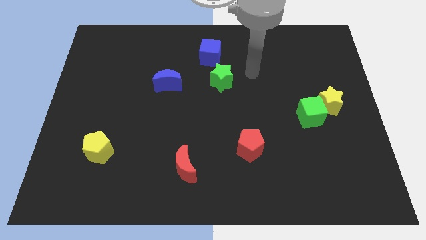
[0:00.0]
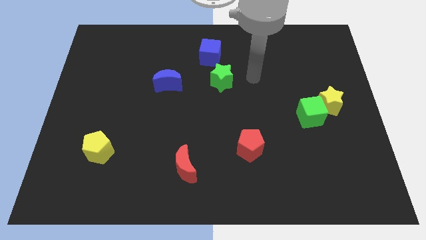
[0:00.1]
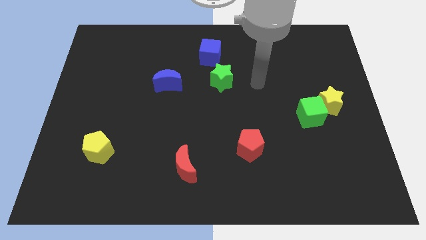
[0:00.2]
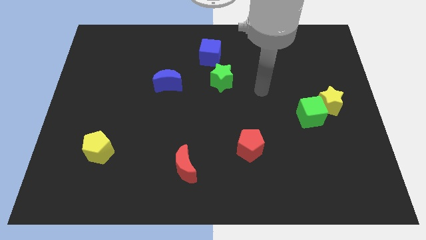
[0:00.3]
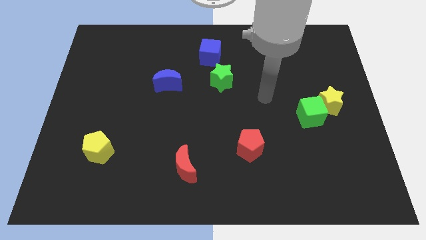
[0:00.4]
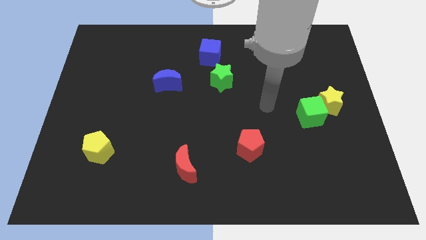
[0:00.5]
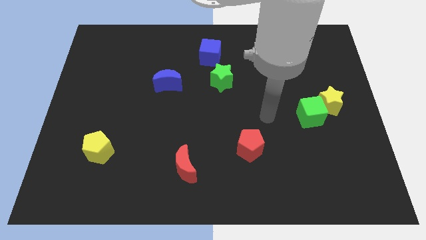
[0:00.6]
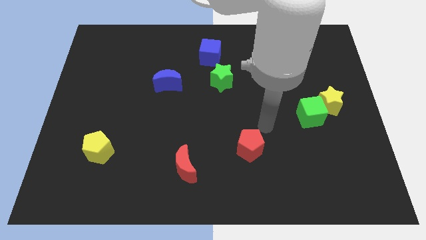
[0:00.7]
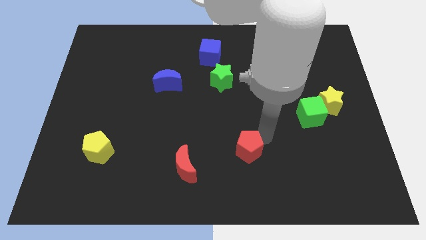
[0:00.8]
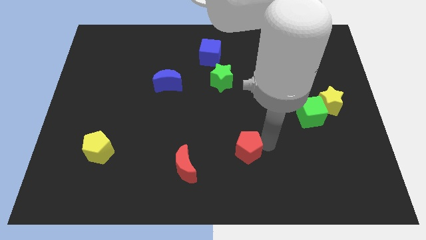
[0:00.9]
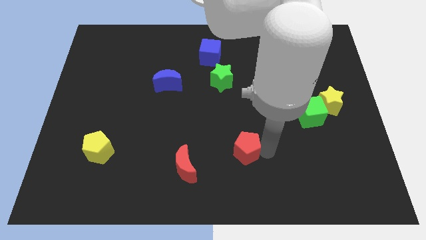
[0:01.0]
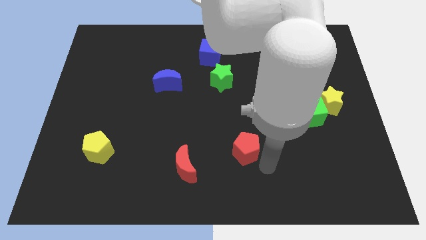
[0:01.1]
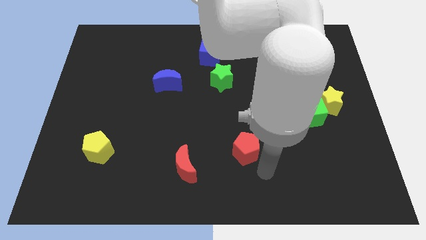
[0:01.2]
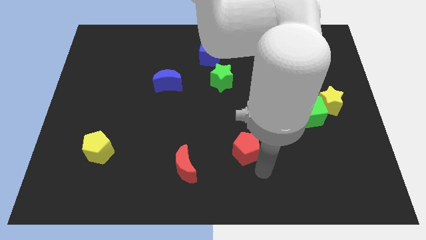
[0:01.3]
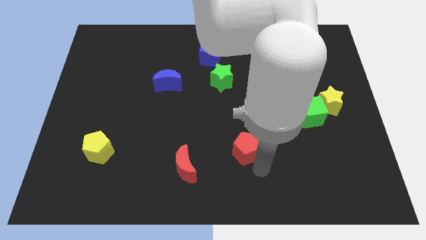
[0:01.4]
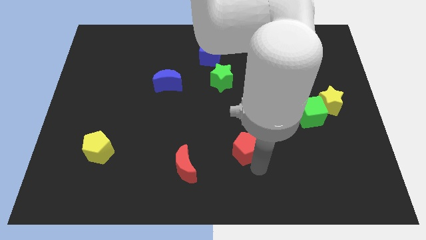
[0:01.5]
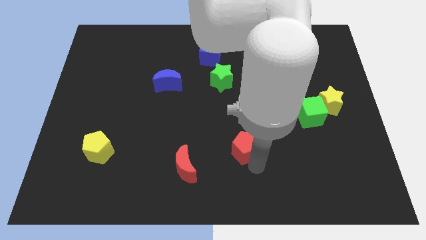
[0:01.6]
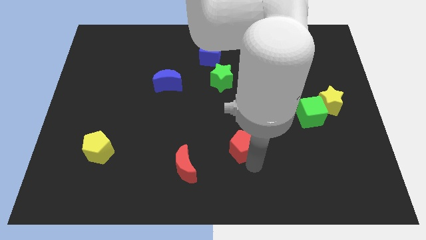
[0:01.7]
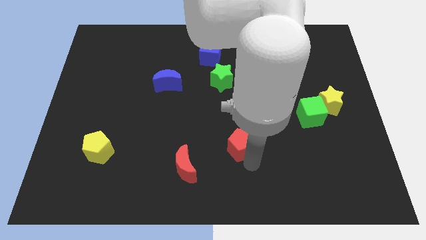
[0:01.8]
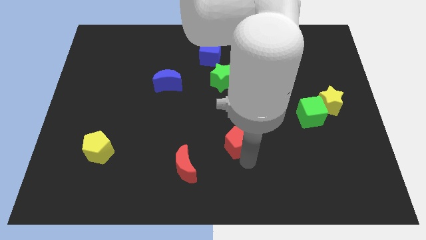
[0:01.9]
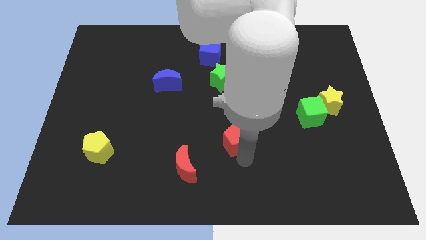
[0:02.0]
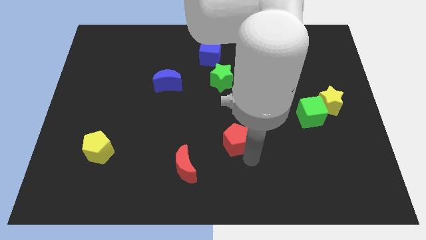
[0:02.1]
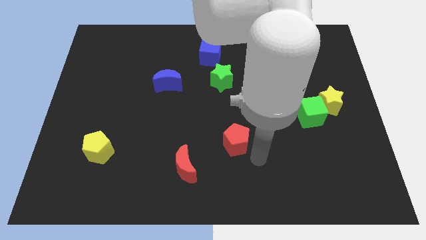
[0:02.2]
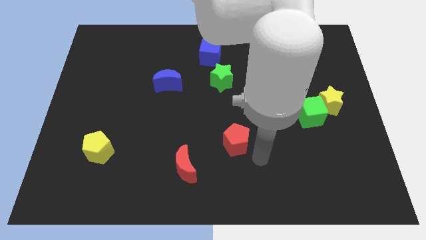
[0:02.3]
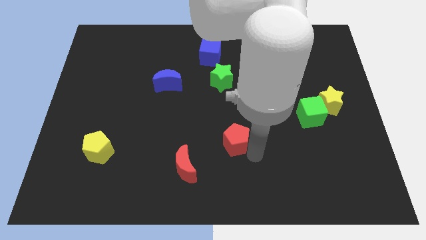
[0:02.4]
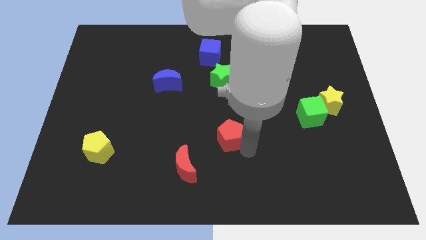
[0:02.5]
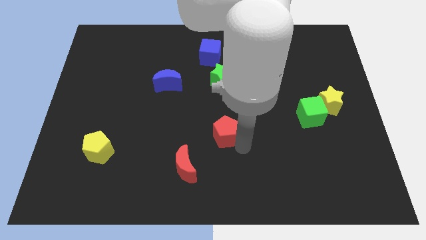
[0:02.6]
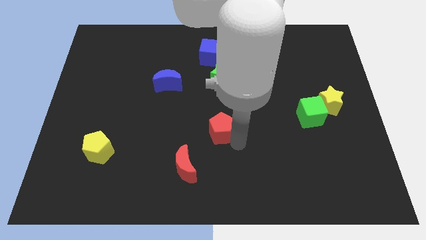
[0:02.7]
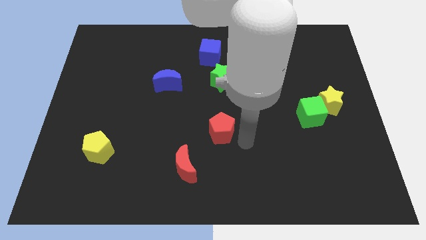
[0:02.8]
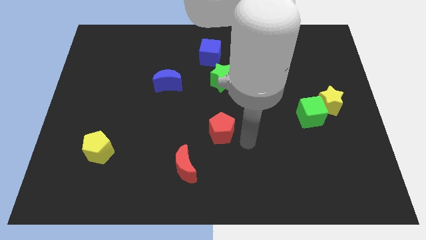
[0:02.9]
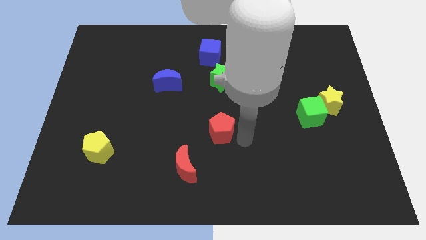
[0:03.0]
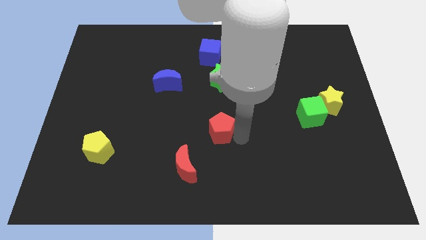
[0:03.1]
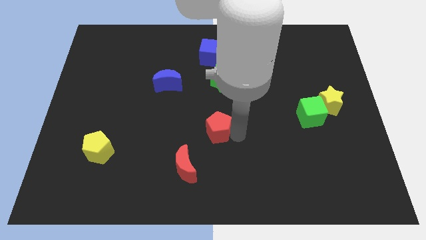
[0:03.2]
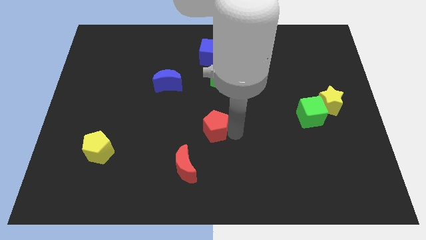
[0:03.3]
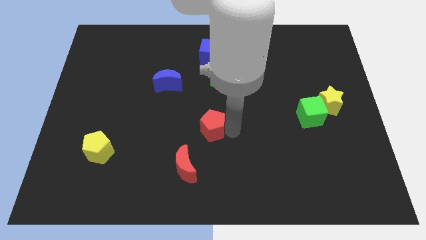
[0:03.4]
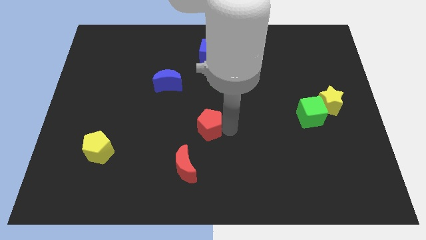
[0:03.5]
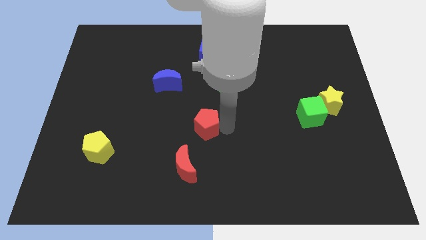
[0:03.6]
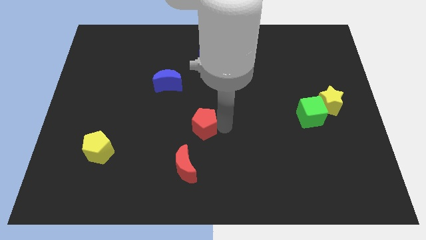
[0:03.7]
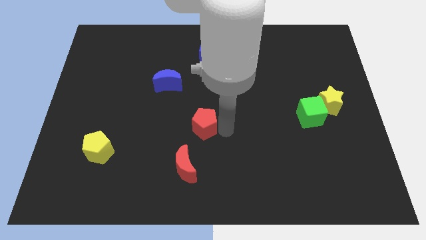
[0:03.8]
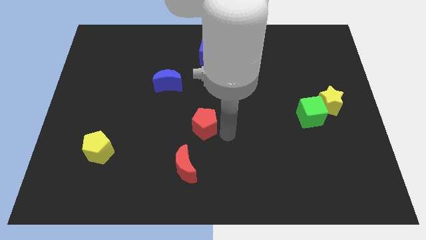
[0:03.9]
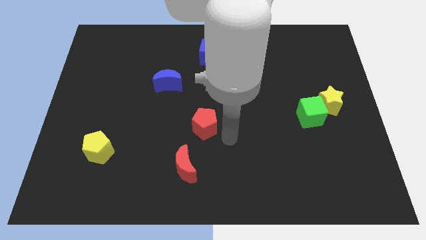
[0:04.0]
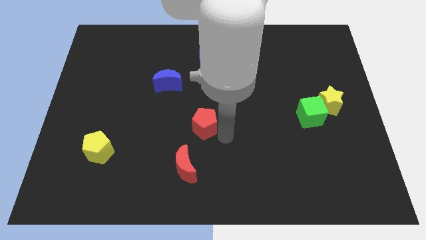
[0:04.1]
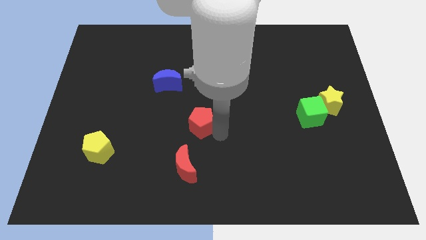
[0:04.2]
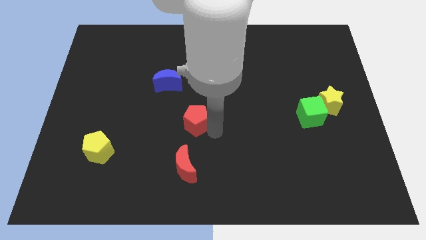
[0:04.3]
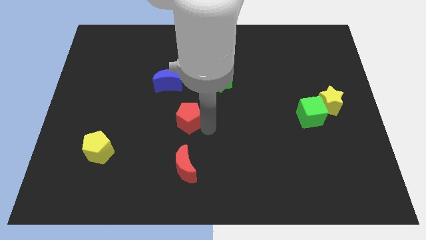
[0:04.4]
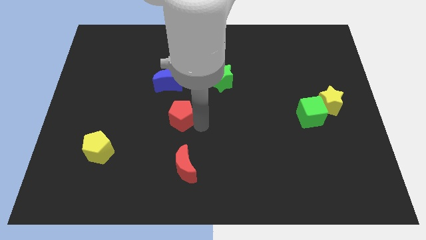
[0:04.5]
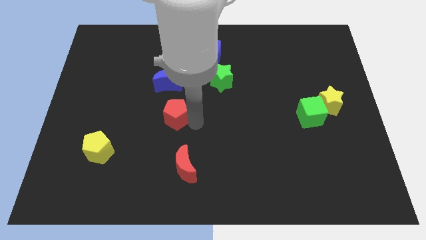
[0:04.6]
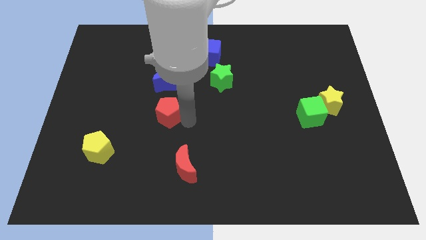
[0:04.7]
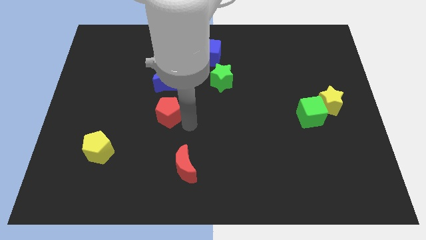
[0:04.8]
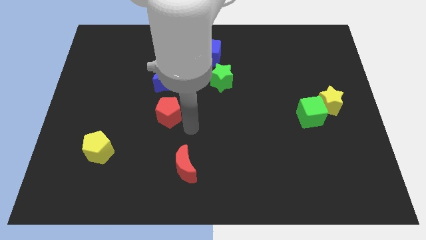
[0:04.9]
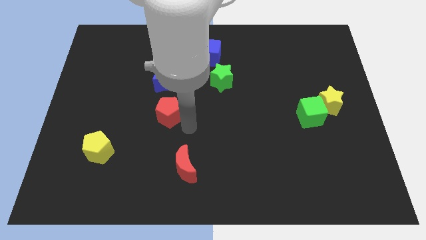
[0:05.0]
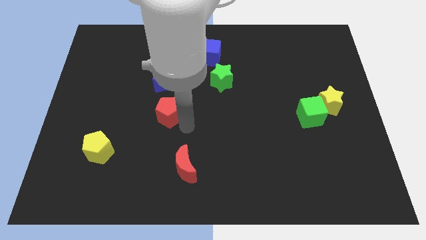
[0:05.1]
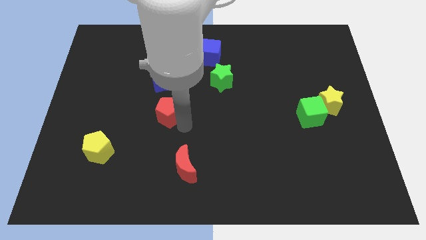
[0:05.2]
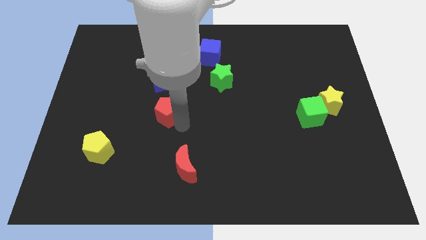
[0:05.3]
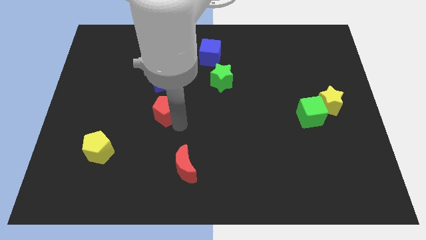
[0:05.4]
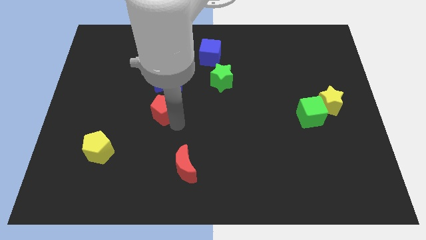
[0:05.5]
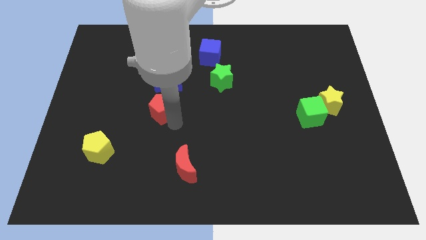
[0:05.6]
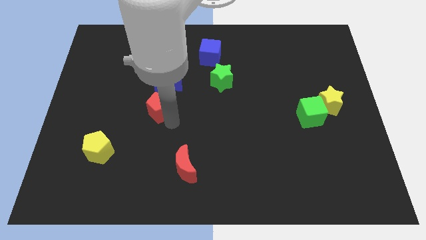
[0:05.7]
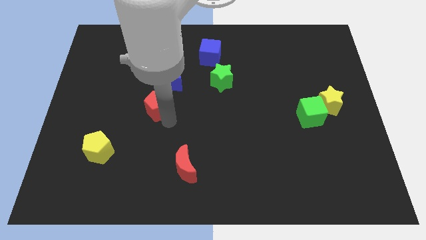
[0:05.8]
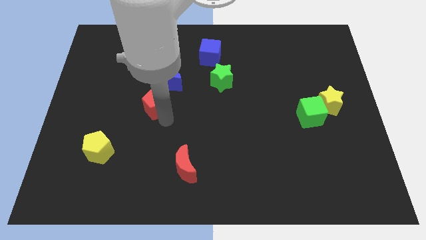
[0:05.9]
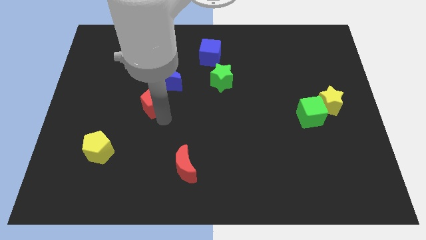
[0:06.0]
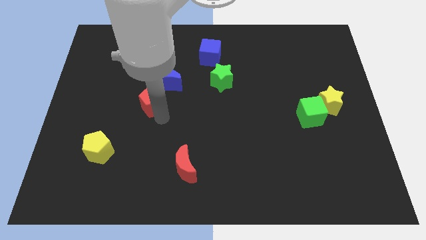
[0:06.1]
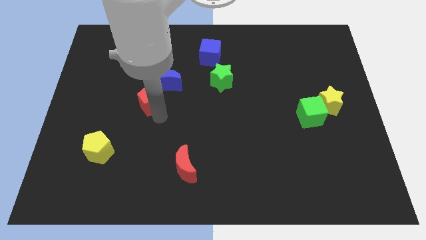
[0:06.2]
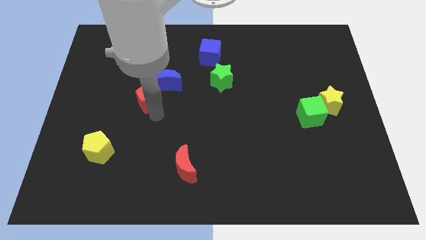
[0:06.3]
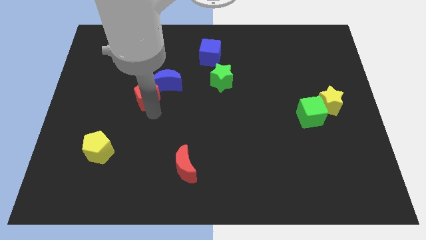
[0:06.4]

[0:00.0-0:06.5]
slide the red pentagon to the left side of the blue moon

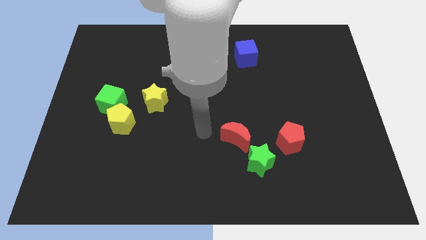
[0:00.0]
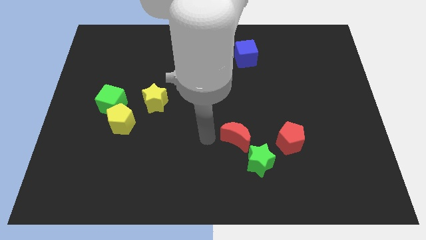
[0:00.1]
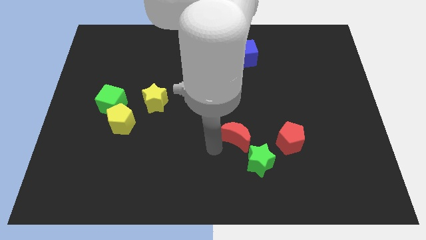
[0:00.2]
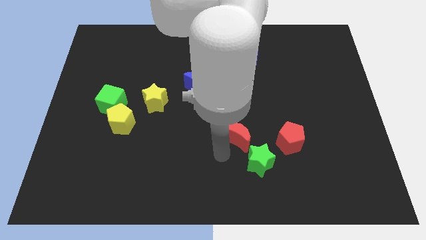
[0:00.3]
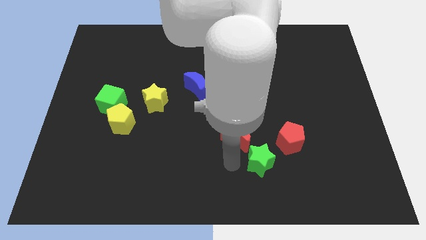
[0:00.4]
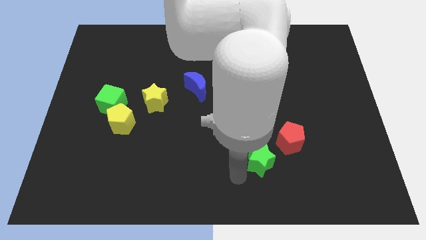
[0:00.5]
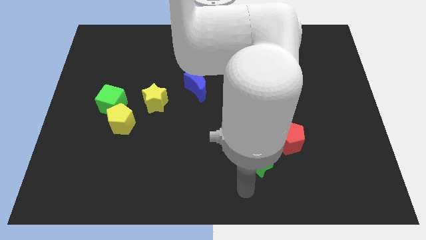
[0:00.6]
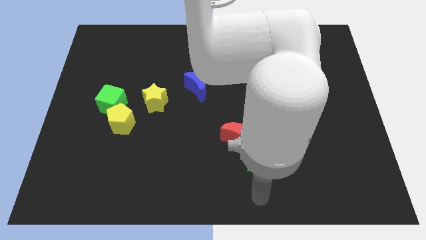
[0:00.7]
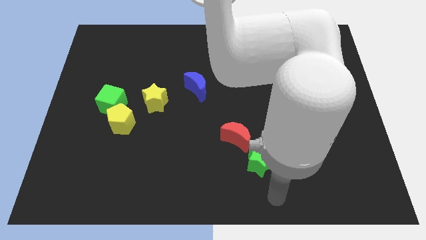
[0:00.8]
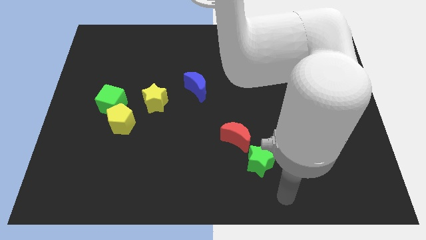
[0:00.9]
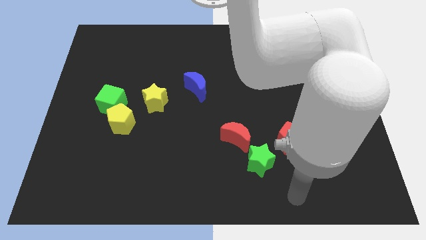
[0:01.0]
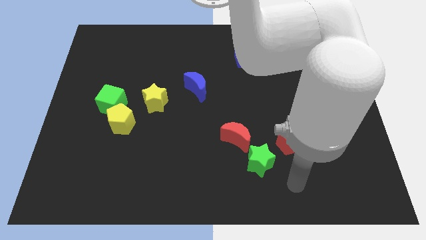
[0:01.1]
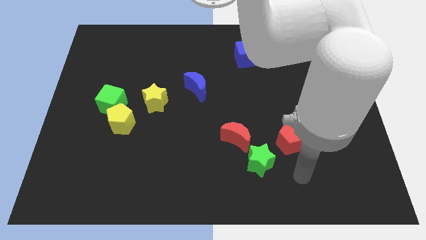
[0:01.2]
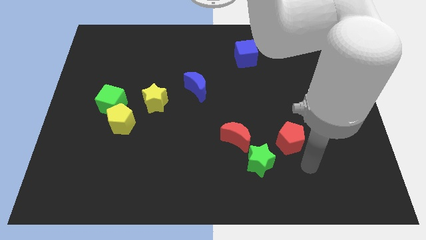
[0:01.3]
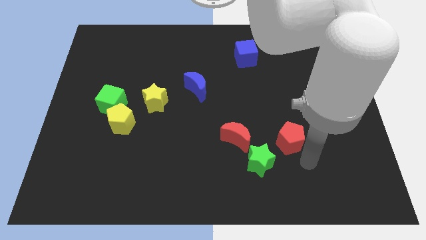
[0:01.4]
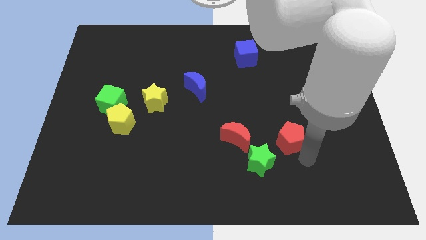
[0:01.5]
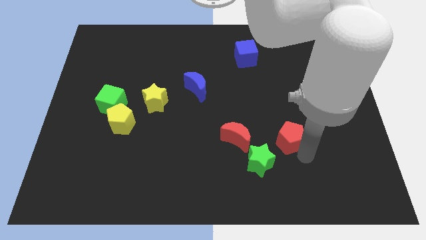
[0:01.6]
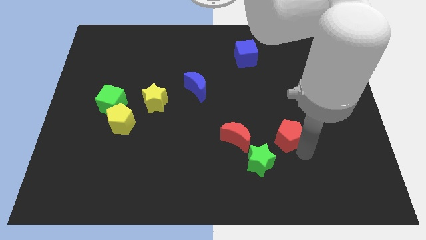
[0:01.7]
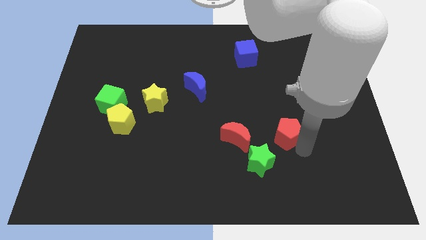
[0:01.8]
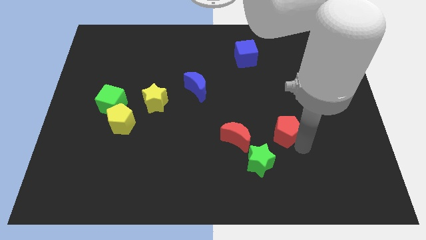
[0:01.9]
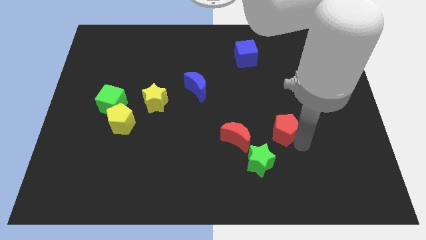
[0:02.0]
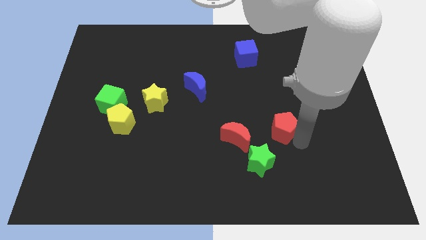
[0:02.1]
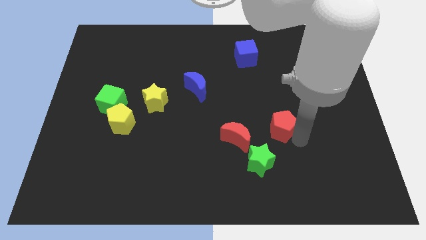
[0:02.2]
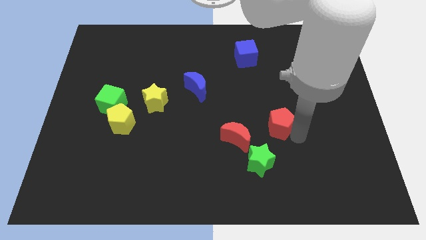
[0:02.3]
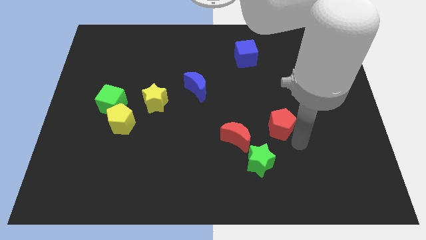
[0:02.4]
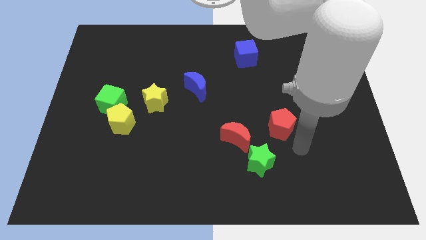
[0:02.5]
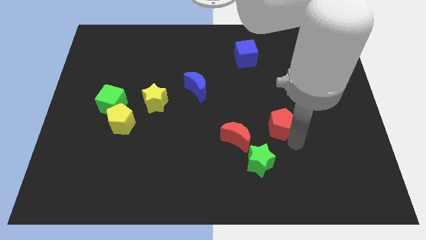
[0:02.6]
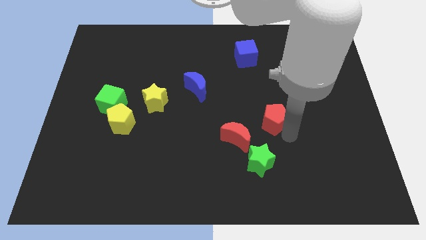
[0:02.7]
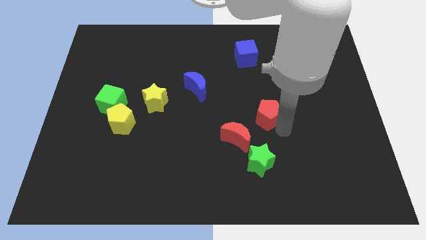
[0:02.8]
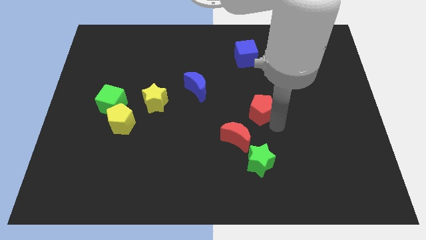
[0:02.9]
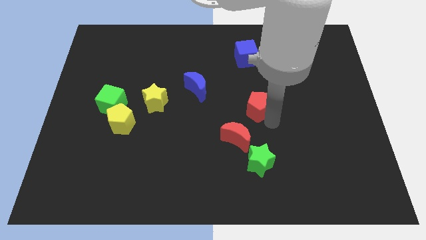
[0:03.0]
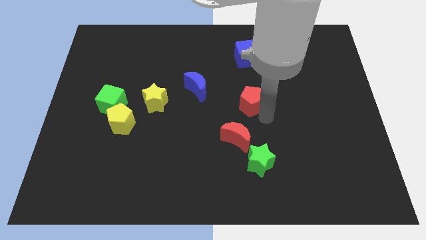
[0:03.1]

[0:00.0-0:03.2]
slide the red pentagon to the bottom of the blue cube
